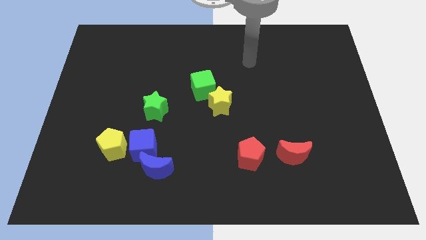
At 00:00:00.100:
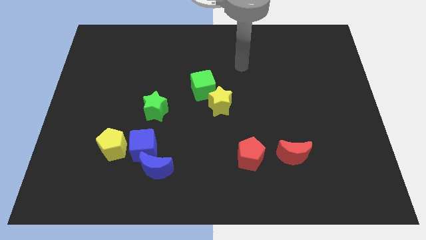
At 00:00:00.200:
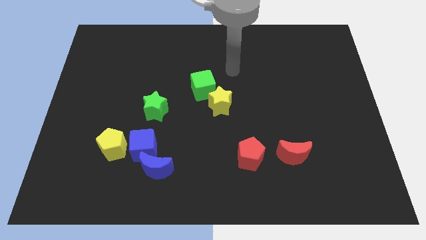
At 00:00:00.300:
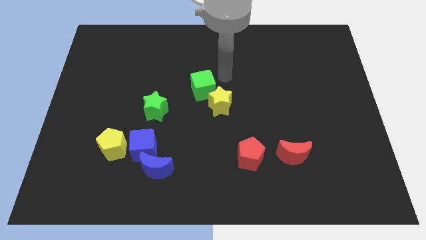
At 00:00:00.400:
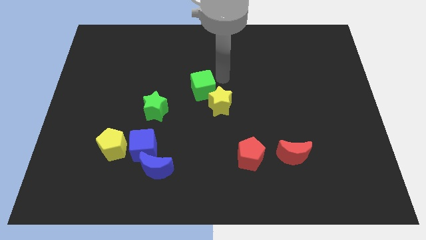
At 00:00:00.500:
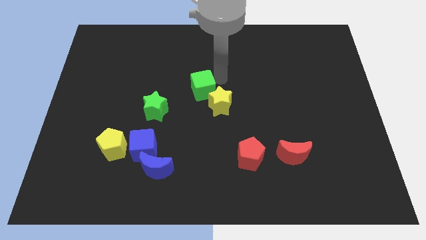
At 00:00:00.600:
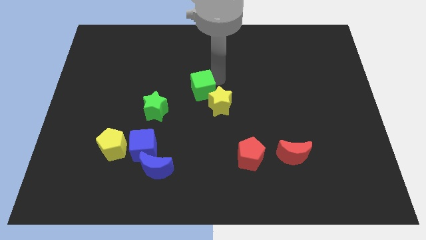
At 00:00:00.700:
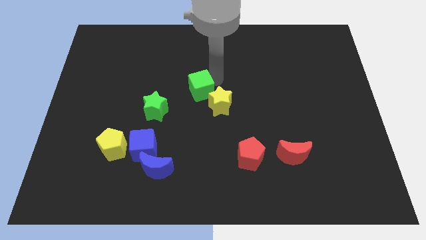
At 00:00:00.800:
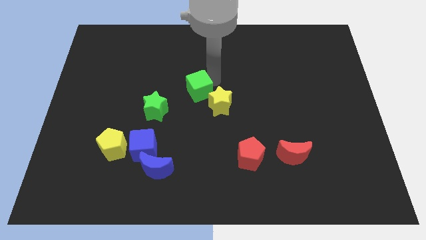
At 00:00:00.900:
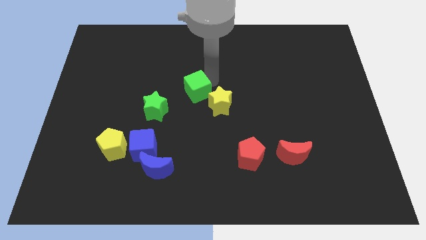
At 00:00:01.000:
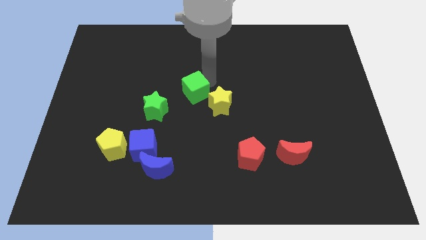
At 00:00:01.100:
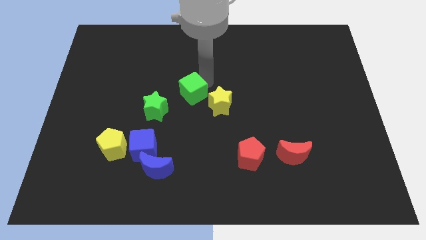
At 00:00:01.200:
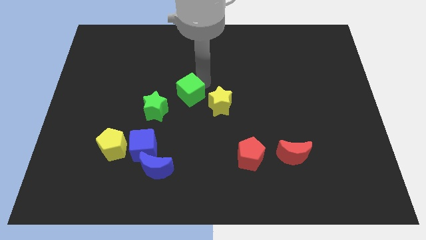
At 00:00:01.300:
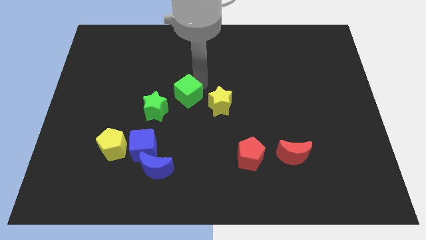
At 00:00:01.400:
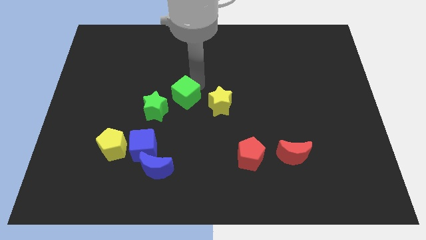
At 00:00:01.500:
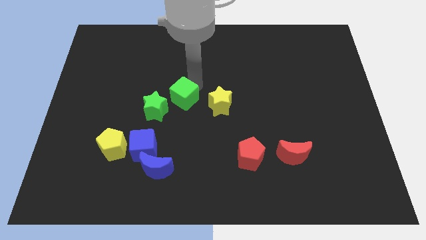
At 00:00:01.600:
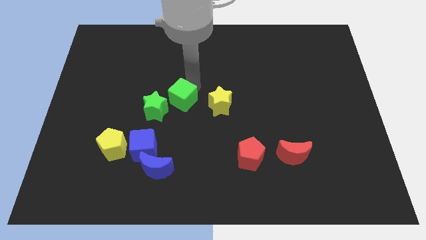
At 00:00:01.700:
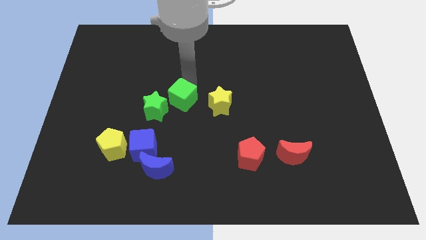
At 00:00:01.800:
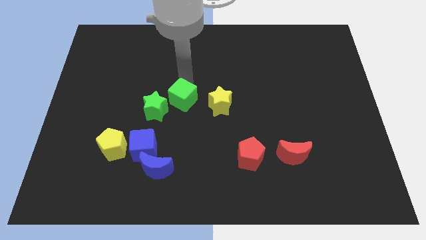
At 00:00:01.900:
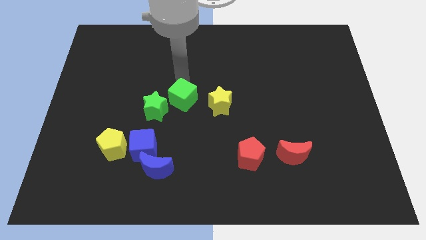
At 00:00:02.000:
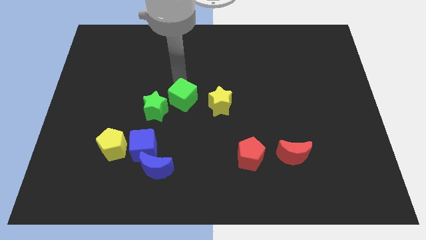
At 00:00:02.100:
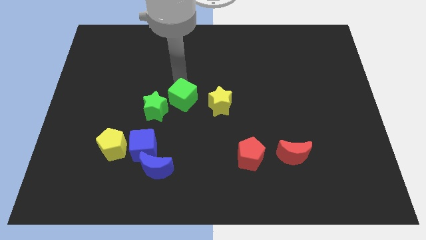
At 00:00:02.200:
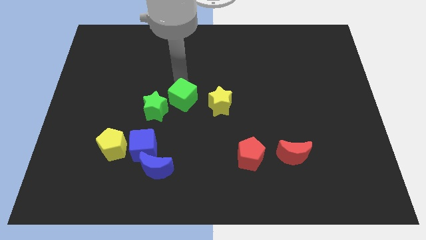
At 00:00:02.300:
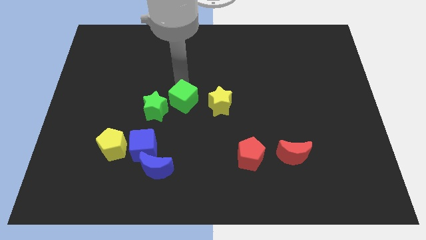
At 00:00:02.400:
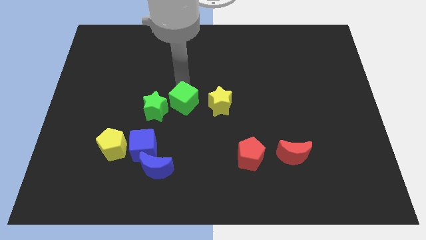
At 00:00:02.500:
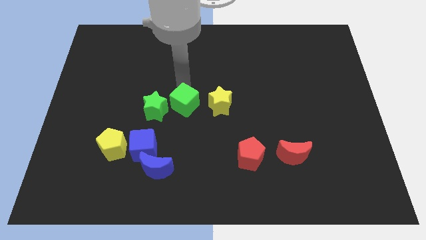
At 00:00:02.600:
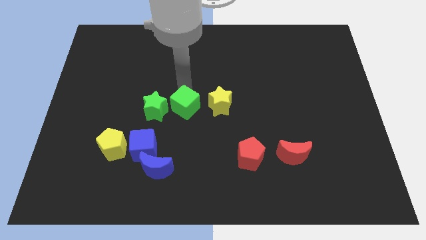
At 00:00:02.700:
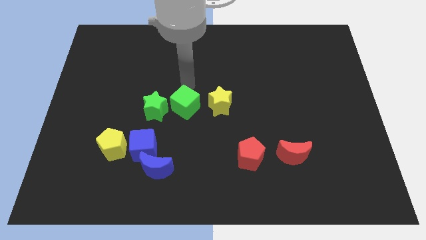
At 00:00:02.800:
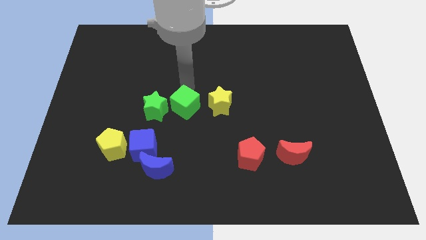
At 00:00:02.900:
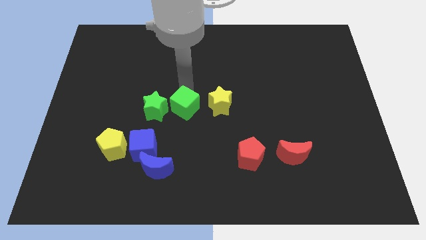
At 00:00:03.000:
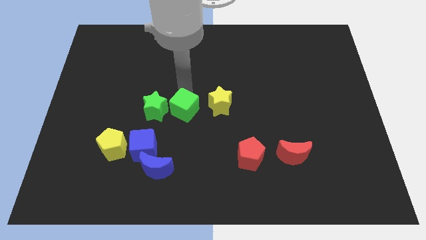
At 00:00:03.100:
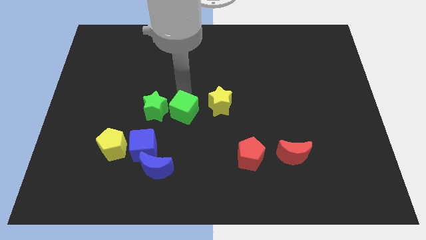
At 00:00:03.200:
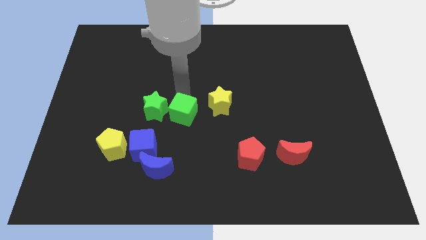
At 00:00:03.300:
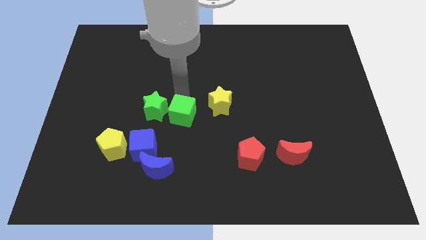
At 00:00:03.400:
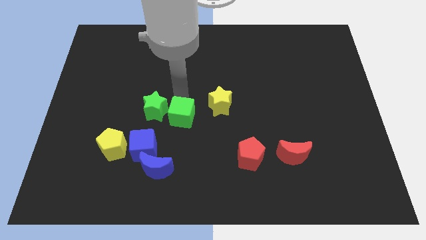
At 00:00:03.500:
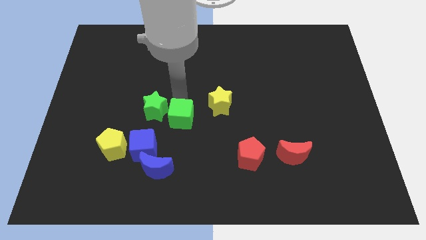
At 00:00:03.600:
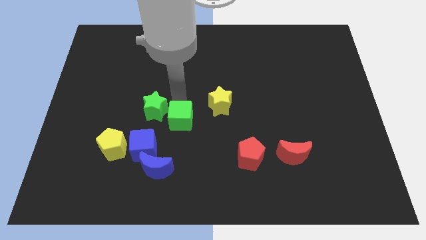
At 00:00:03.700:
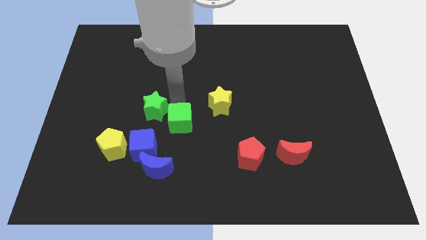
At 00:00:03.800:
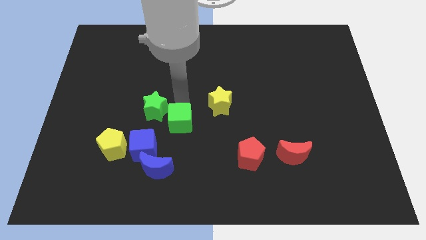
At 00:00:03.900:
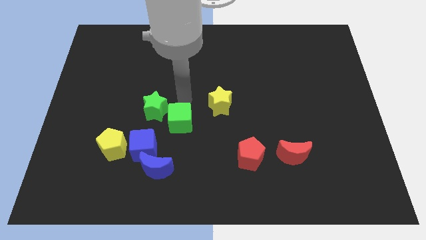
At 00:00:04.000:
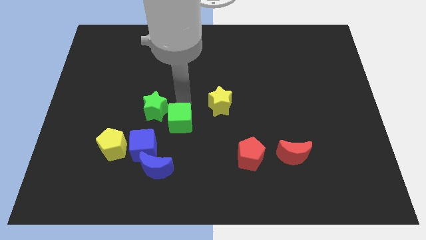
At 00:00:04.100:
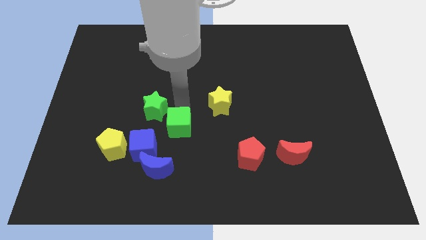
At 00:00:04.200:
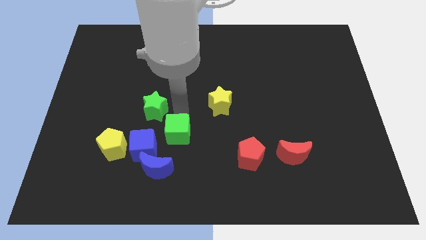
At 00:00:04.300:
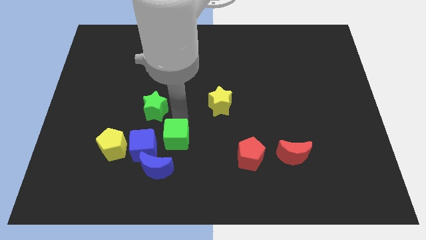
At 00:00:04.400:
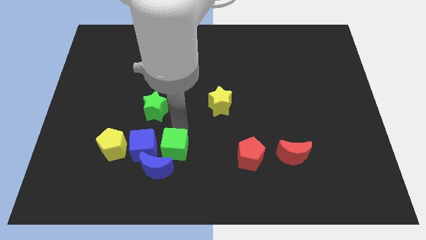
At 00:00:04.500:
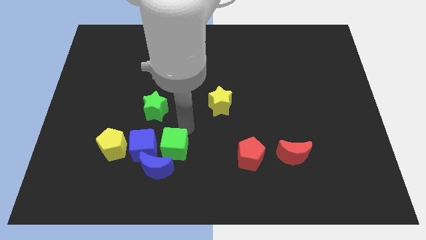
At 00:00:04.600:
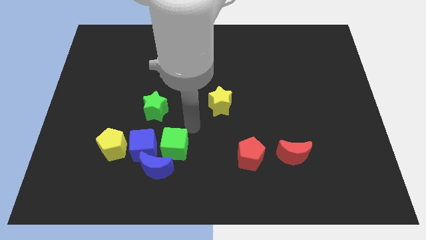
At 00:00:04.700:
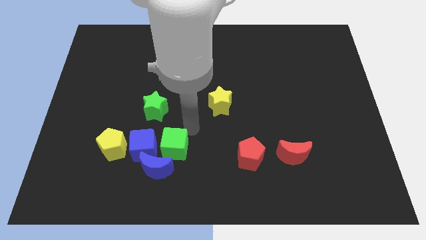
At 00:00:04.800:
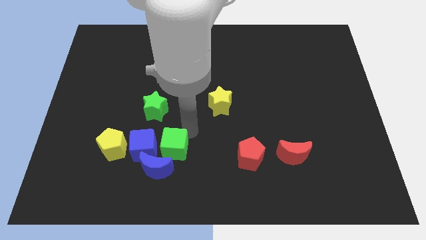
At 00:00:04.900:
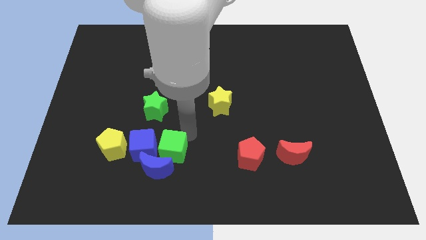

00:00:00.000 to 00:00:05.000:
slide the green cube towards the blue moon

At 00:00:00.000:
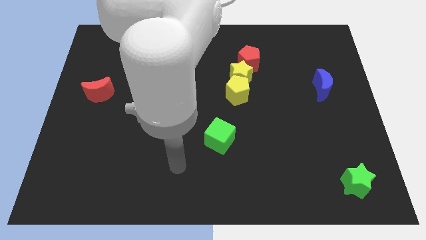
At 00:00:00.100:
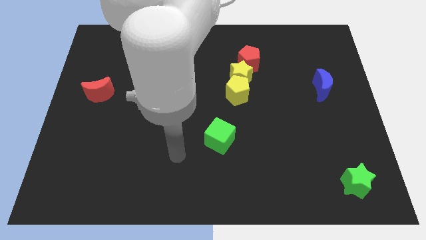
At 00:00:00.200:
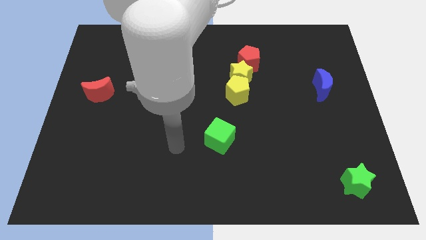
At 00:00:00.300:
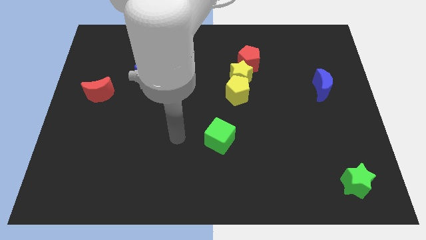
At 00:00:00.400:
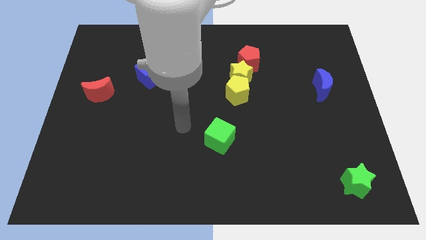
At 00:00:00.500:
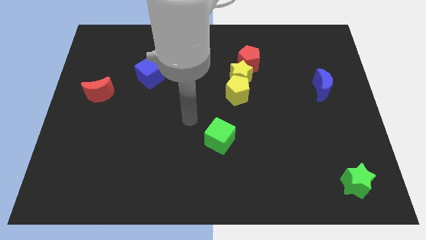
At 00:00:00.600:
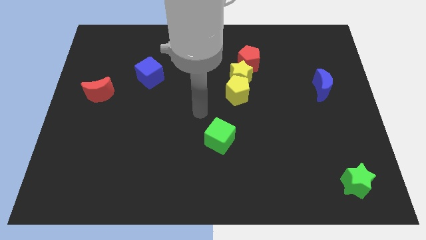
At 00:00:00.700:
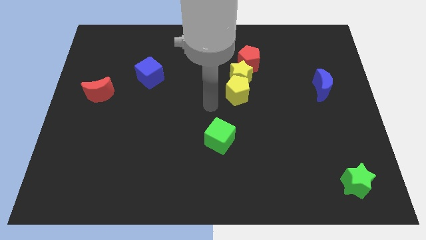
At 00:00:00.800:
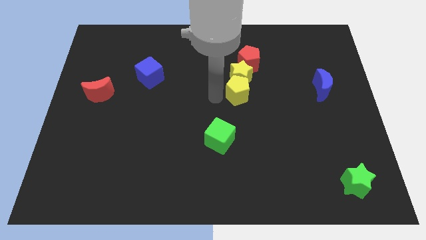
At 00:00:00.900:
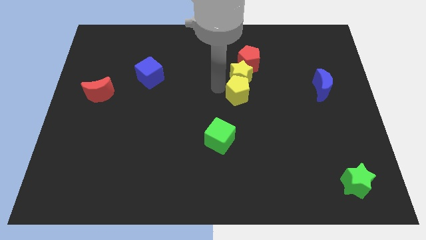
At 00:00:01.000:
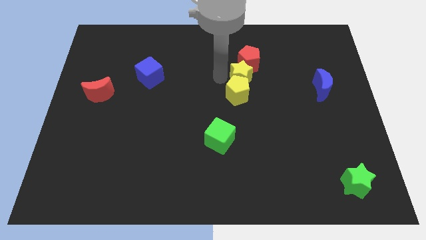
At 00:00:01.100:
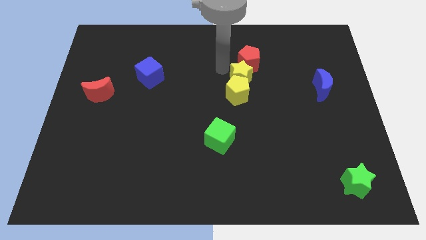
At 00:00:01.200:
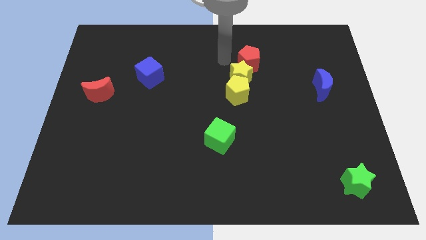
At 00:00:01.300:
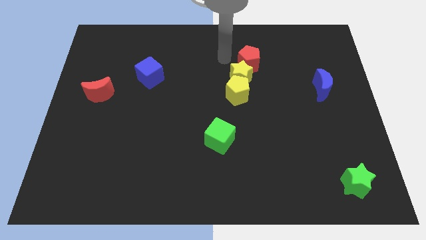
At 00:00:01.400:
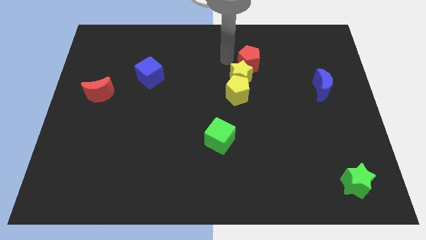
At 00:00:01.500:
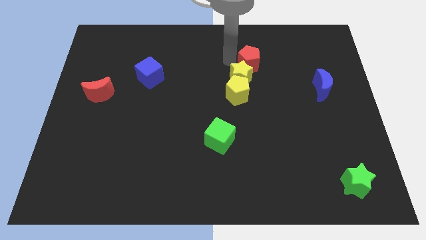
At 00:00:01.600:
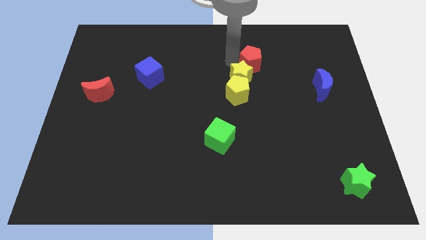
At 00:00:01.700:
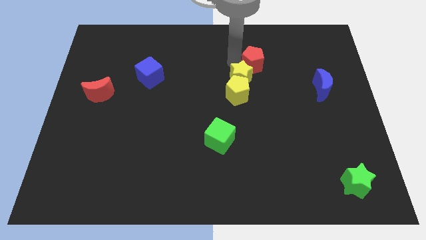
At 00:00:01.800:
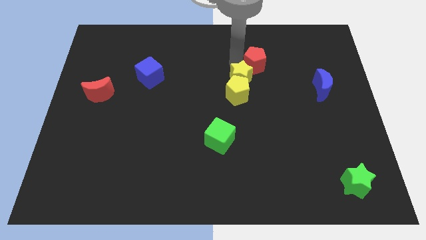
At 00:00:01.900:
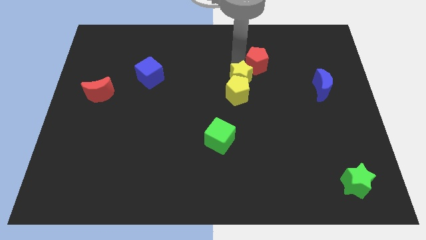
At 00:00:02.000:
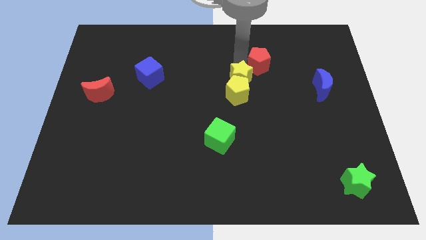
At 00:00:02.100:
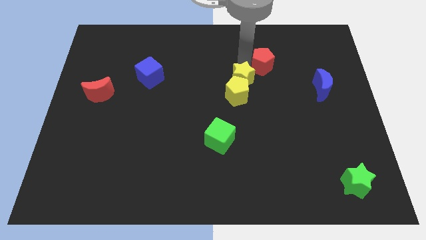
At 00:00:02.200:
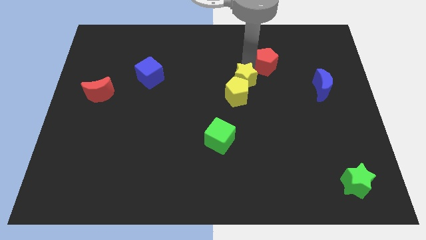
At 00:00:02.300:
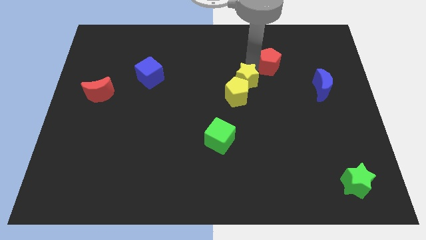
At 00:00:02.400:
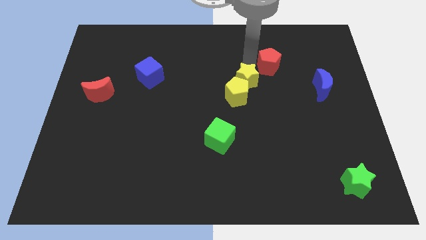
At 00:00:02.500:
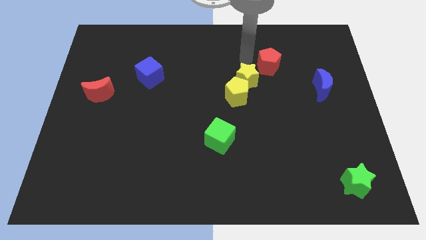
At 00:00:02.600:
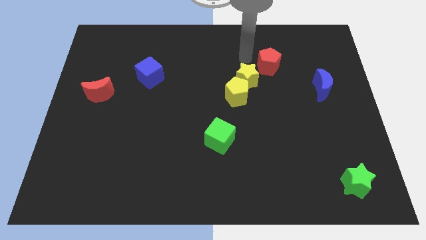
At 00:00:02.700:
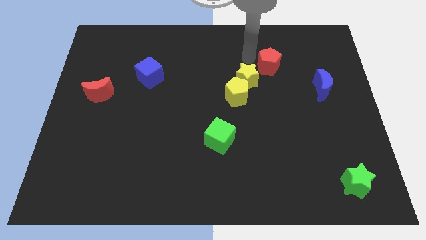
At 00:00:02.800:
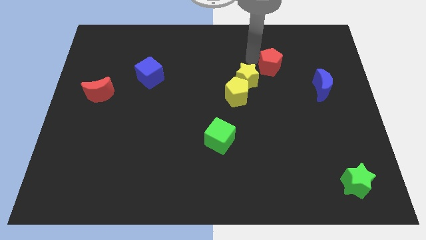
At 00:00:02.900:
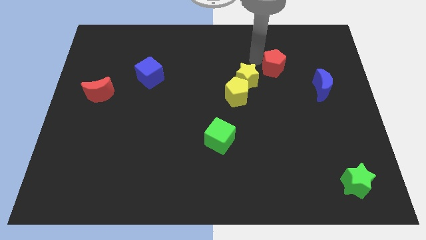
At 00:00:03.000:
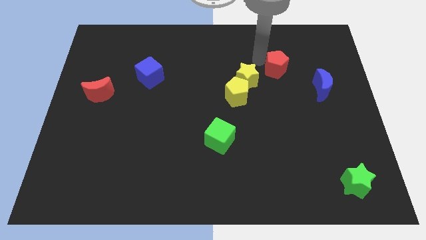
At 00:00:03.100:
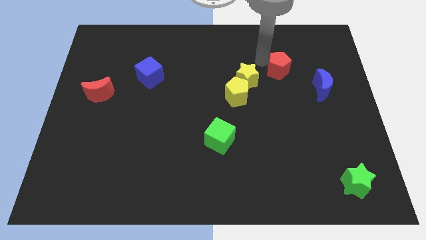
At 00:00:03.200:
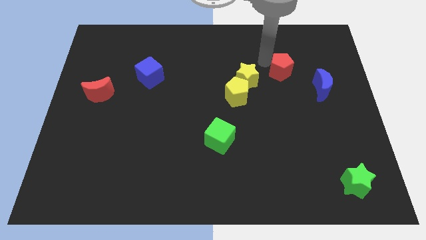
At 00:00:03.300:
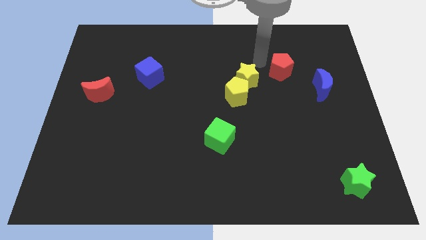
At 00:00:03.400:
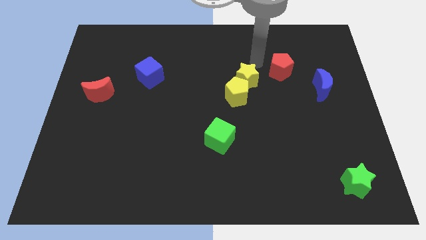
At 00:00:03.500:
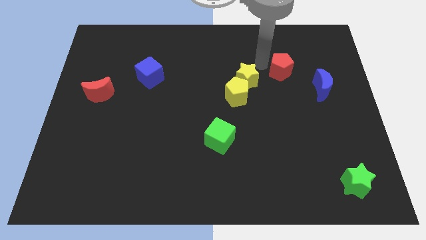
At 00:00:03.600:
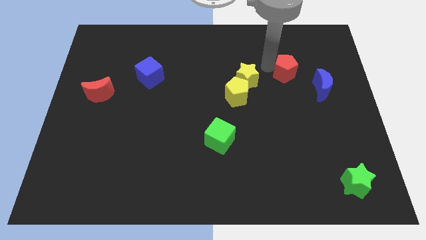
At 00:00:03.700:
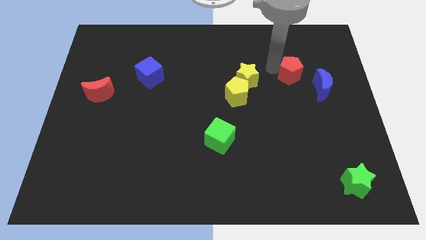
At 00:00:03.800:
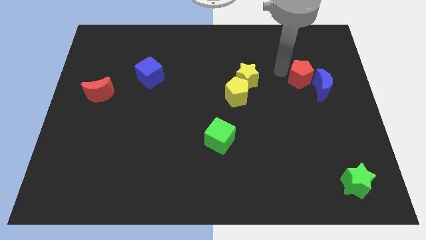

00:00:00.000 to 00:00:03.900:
push the red pentagon close to the blue moon
